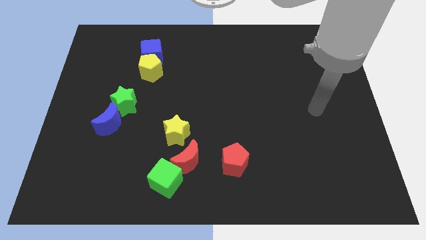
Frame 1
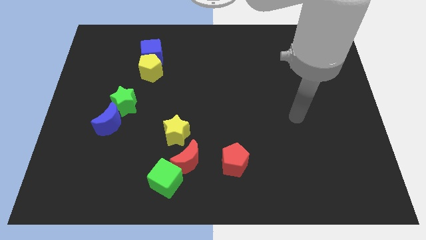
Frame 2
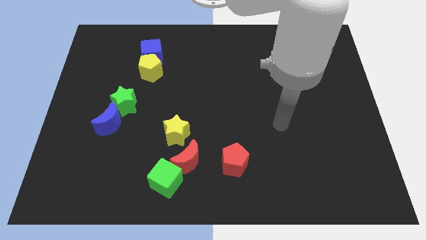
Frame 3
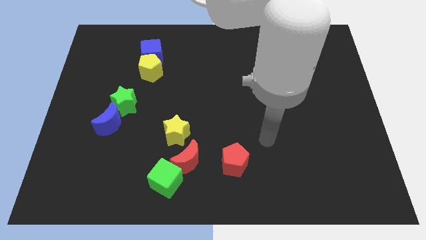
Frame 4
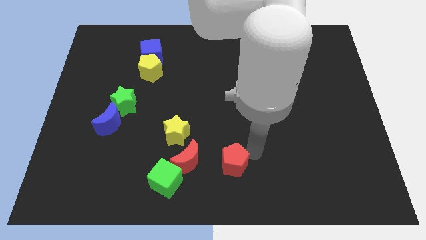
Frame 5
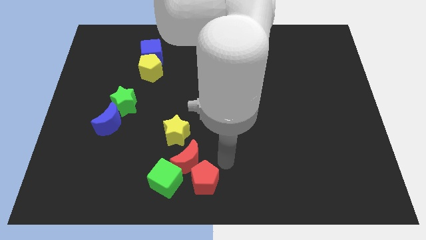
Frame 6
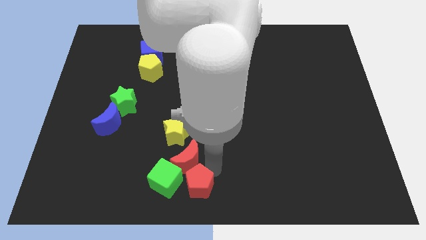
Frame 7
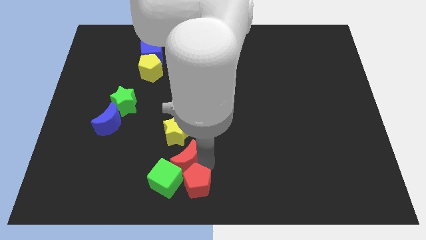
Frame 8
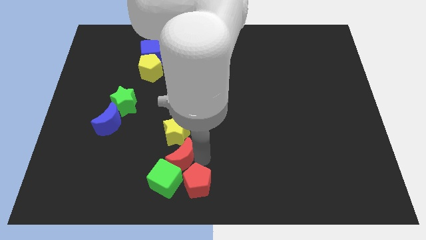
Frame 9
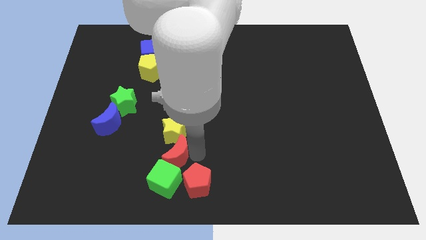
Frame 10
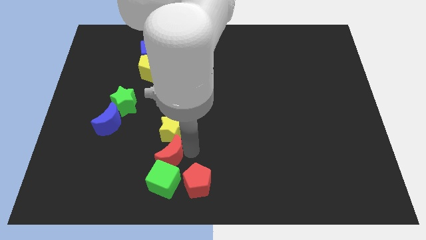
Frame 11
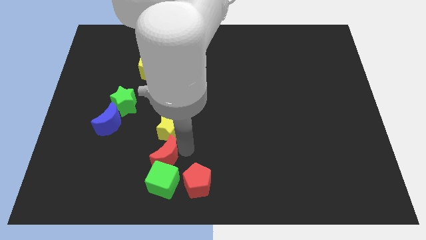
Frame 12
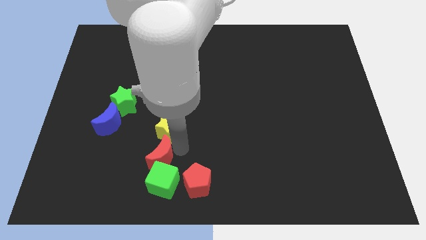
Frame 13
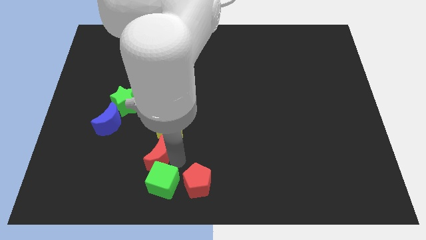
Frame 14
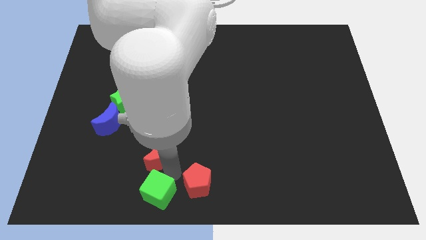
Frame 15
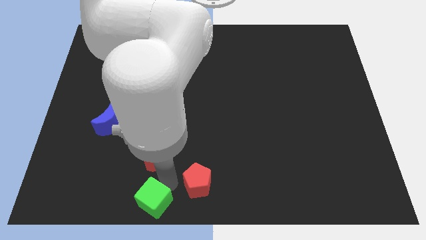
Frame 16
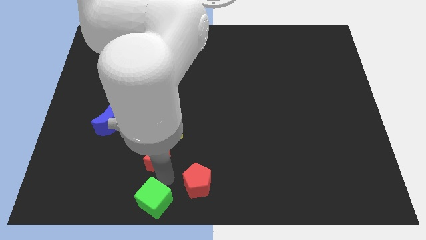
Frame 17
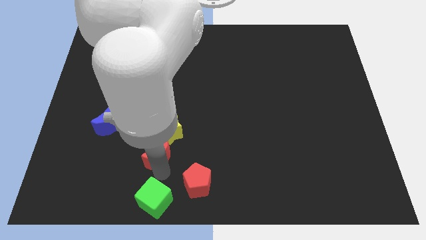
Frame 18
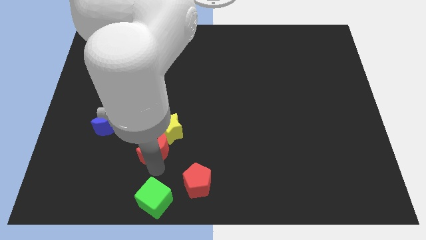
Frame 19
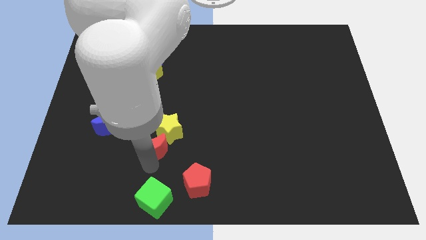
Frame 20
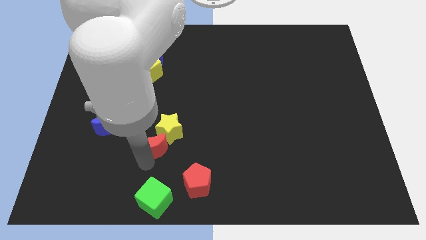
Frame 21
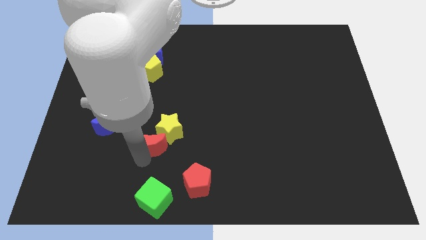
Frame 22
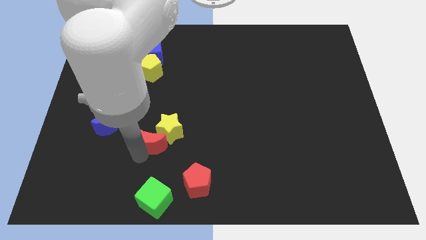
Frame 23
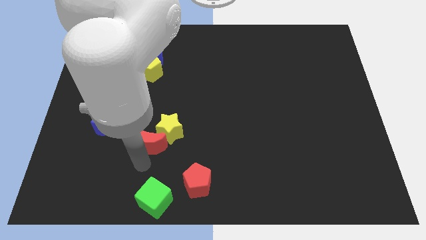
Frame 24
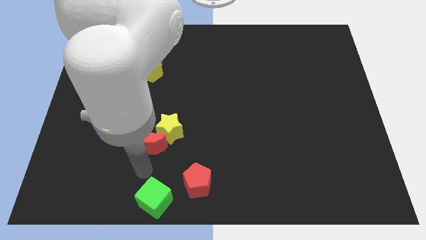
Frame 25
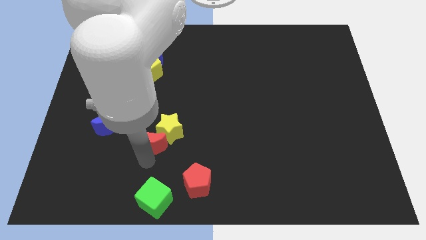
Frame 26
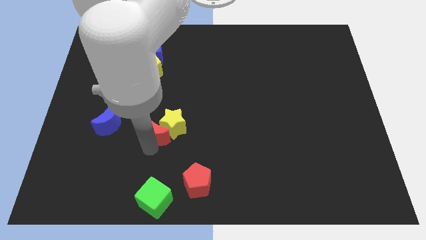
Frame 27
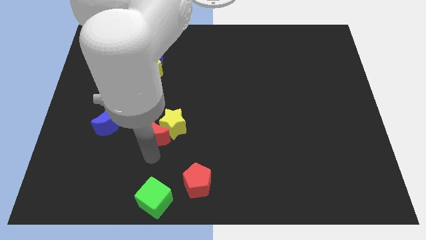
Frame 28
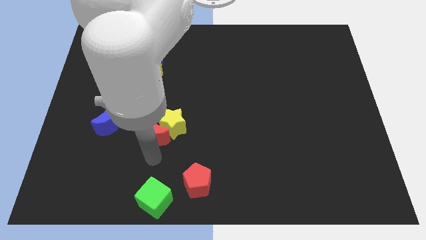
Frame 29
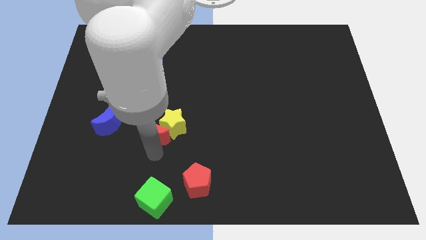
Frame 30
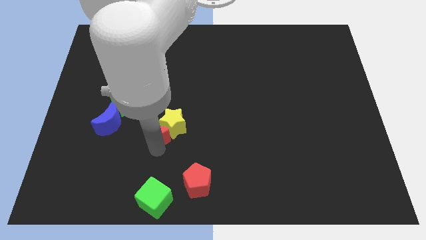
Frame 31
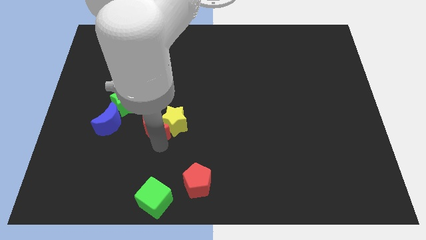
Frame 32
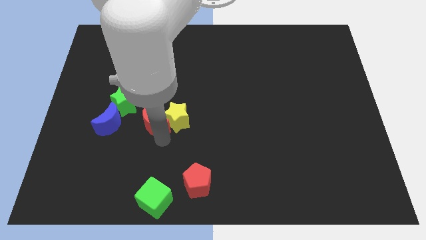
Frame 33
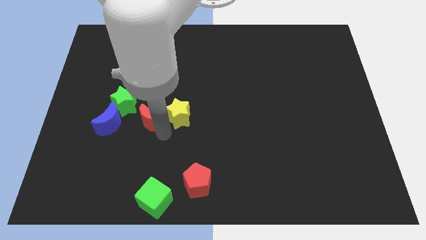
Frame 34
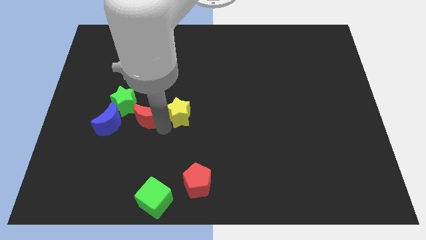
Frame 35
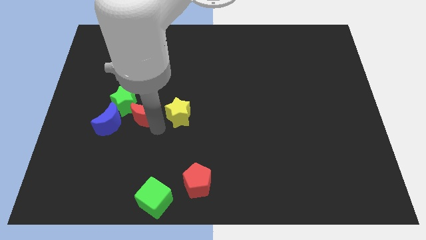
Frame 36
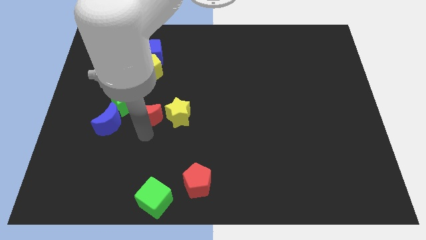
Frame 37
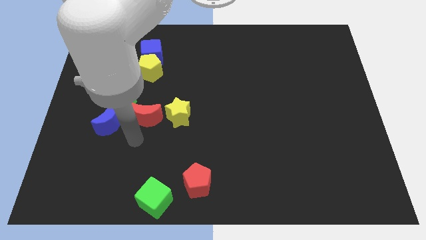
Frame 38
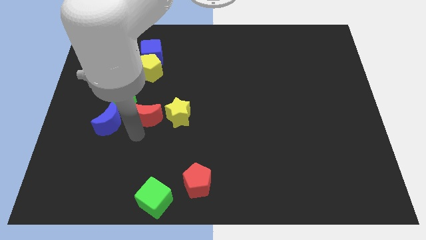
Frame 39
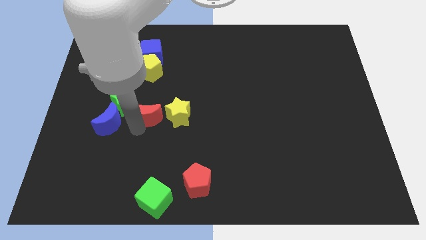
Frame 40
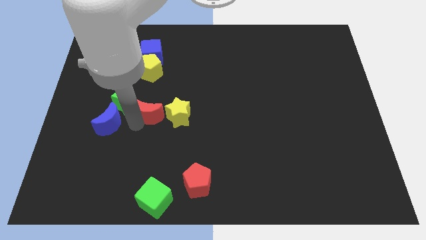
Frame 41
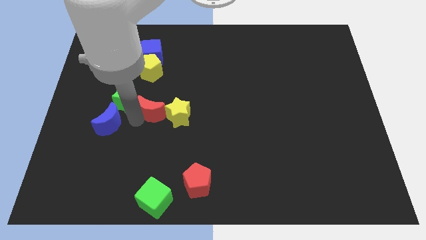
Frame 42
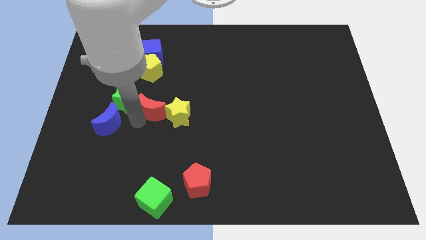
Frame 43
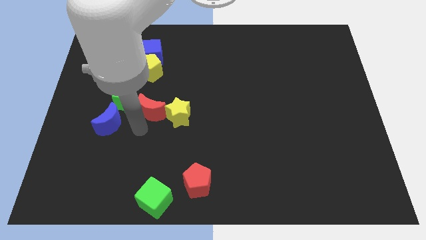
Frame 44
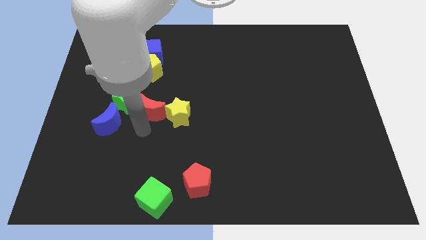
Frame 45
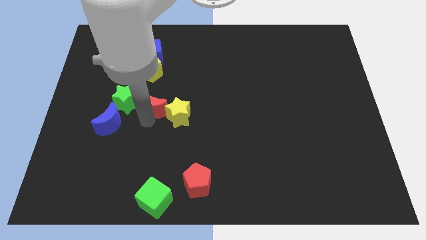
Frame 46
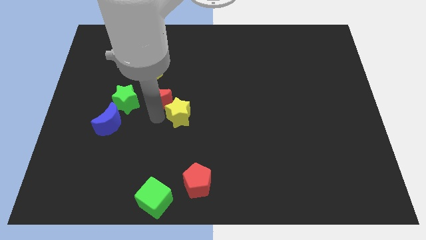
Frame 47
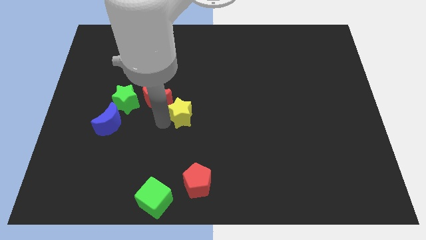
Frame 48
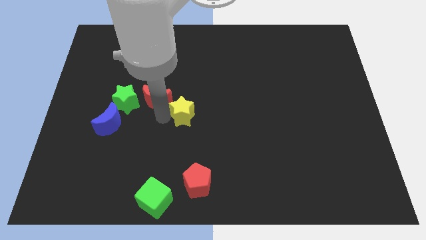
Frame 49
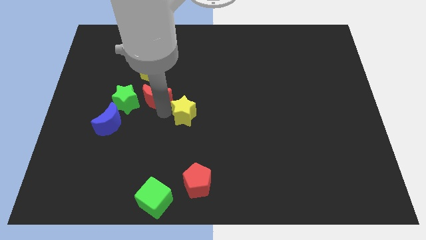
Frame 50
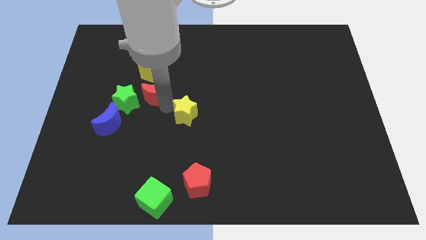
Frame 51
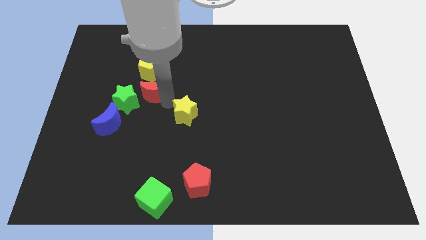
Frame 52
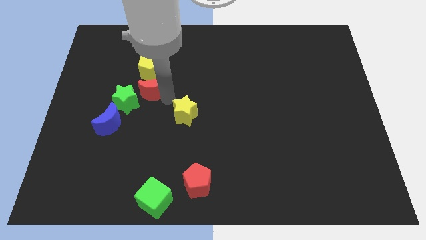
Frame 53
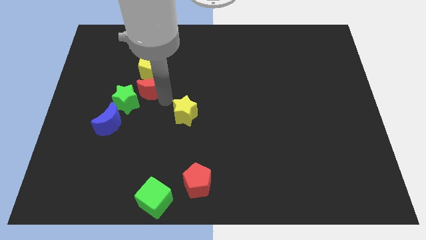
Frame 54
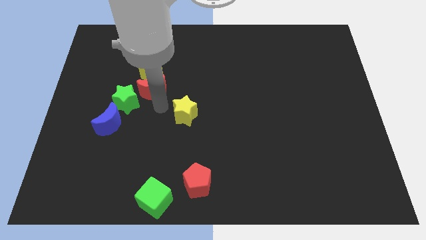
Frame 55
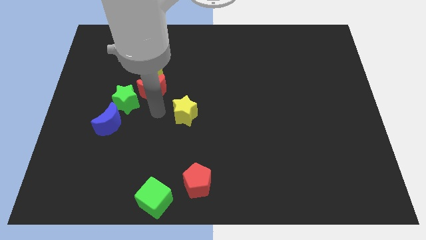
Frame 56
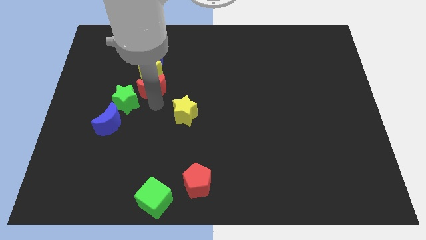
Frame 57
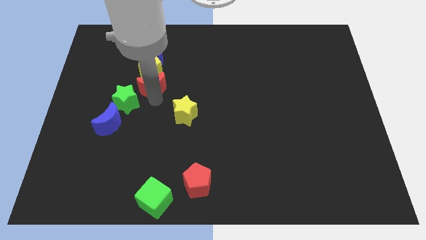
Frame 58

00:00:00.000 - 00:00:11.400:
slide the red moon next to the yellow pentagon

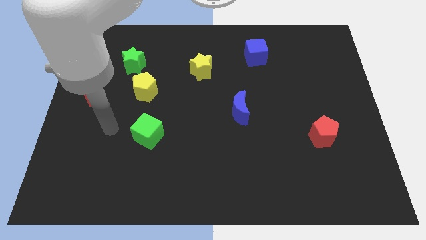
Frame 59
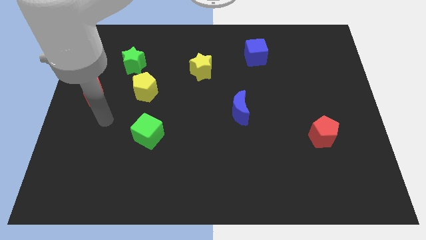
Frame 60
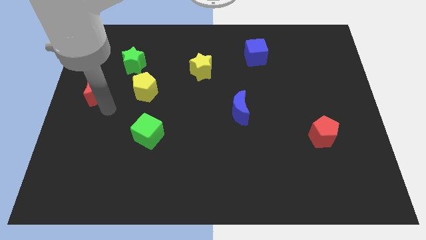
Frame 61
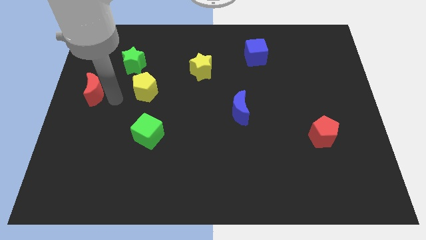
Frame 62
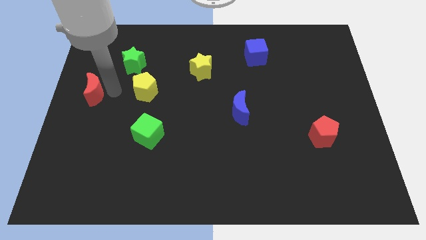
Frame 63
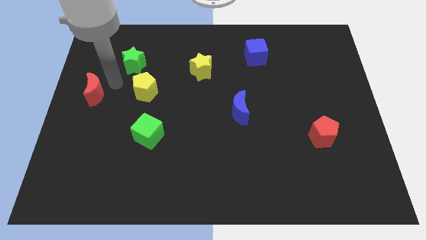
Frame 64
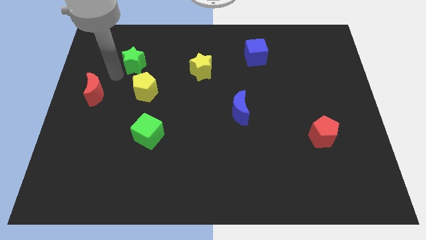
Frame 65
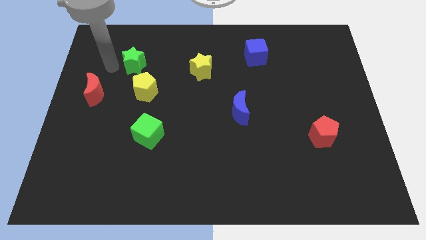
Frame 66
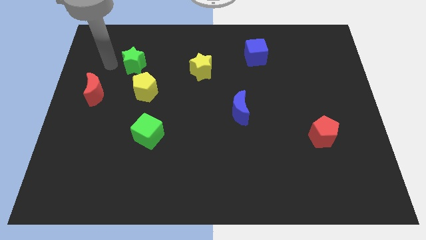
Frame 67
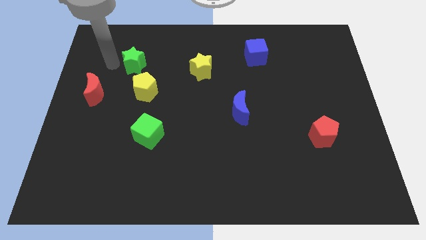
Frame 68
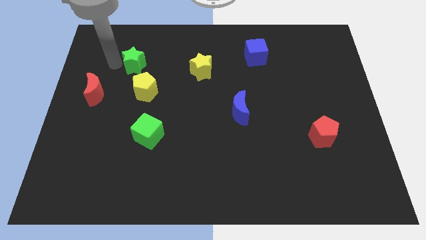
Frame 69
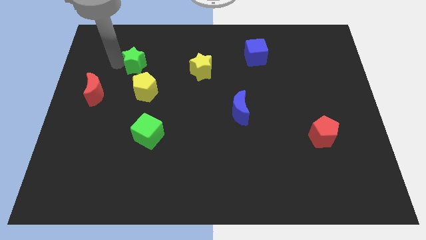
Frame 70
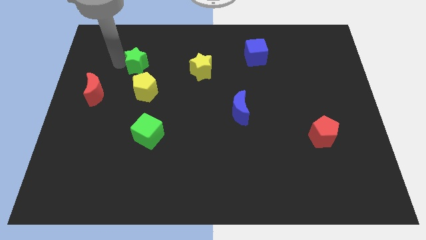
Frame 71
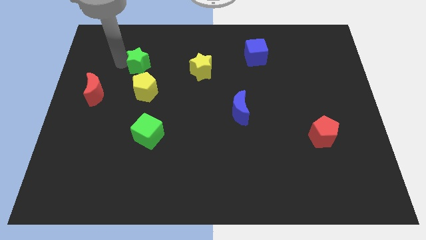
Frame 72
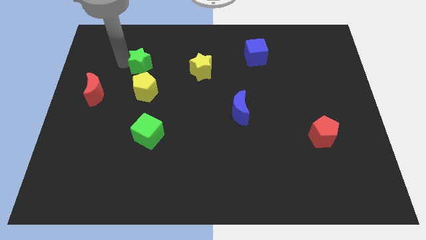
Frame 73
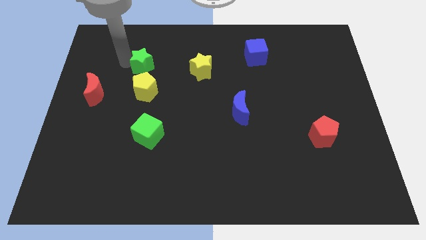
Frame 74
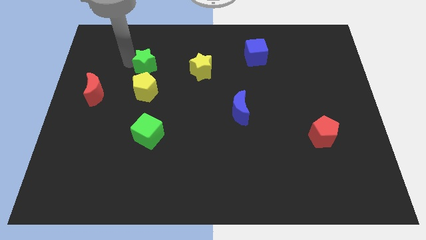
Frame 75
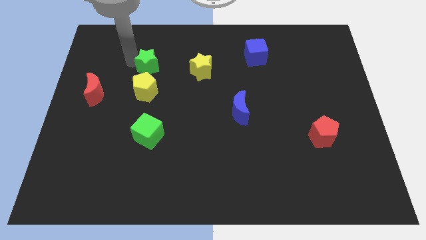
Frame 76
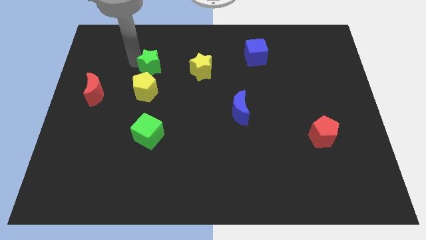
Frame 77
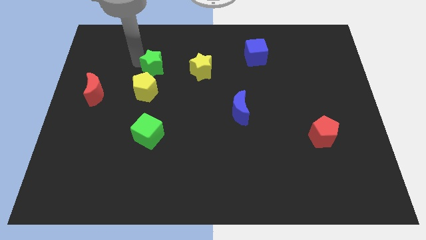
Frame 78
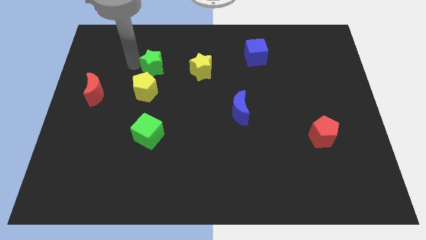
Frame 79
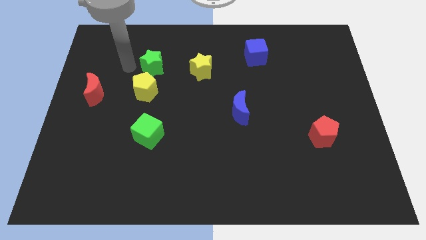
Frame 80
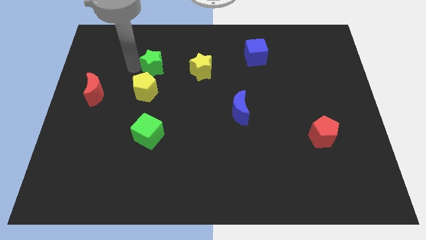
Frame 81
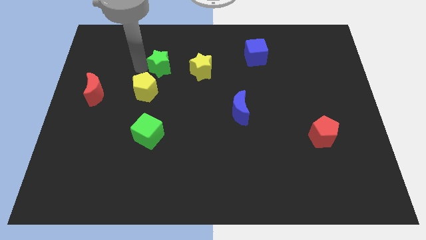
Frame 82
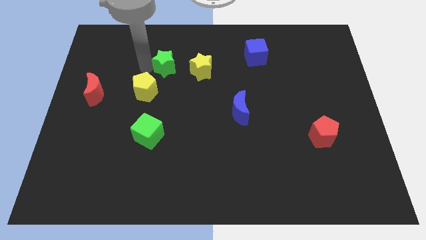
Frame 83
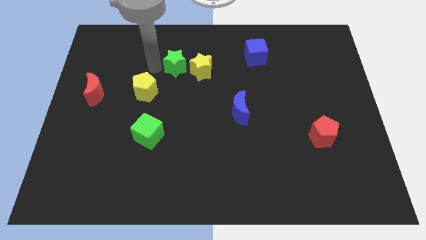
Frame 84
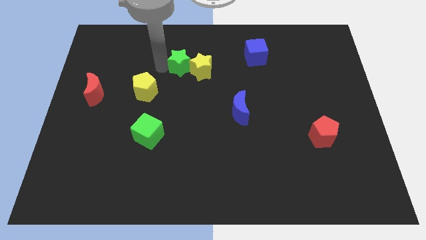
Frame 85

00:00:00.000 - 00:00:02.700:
put the green star close to the yellow star
